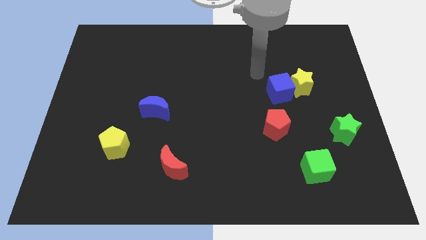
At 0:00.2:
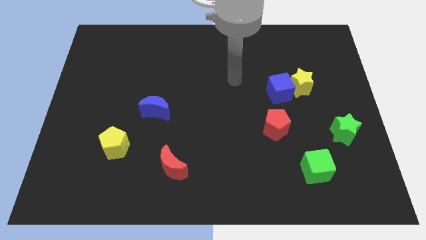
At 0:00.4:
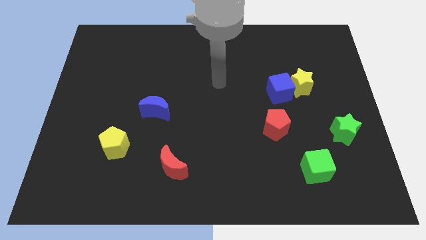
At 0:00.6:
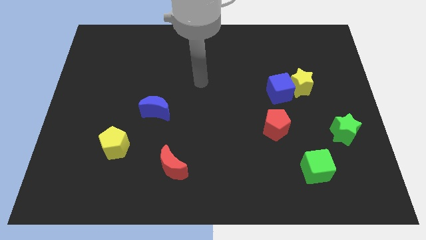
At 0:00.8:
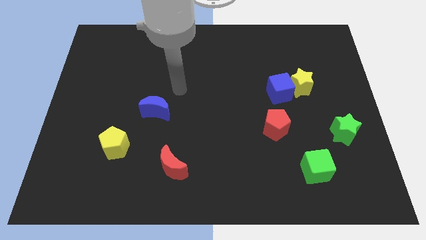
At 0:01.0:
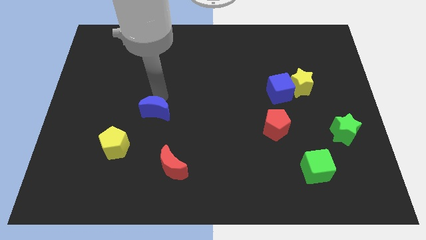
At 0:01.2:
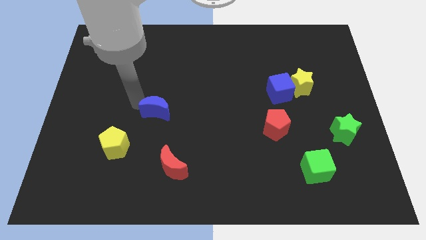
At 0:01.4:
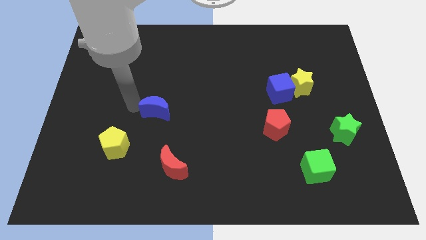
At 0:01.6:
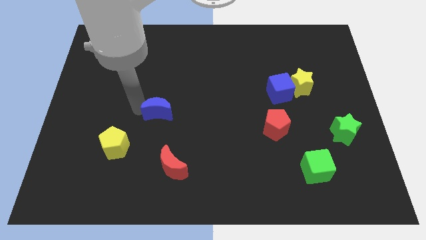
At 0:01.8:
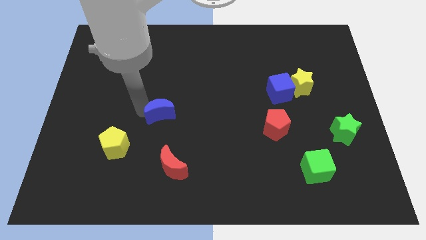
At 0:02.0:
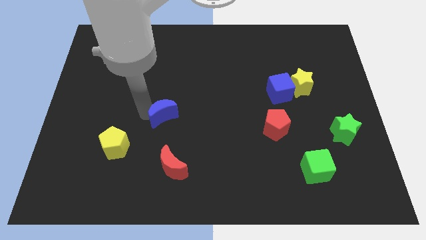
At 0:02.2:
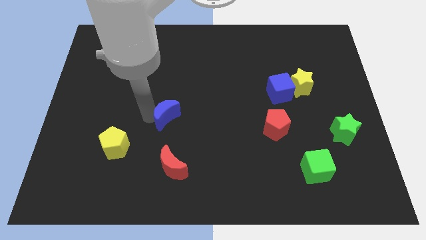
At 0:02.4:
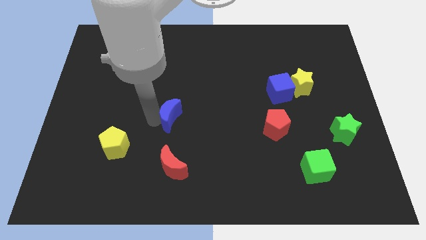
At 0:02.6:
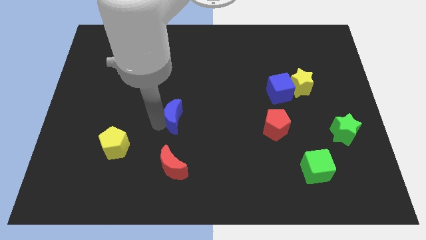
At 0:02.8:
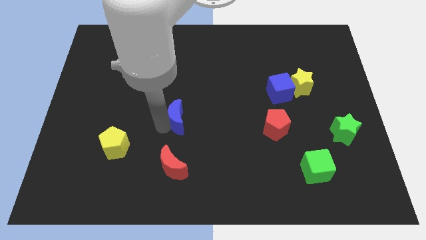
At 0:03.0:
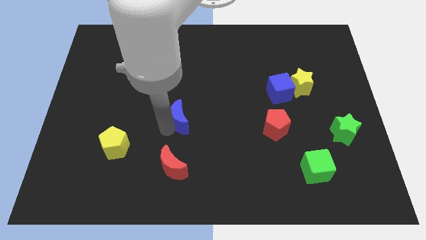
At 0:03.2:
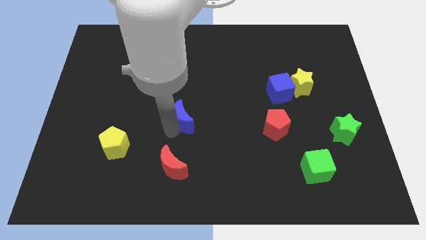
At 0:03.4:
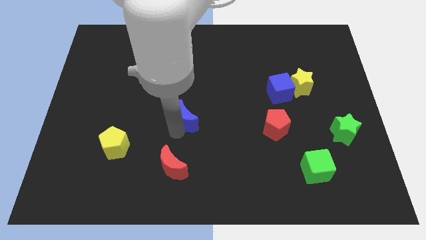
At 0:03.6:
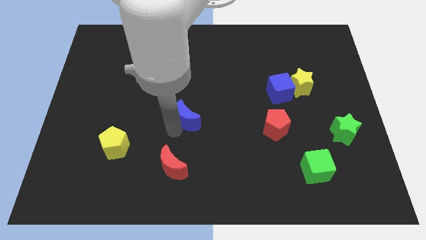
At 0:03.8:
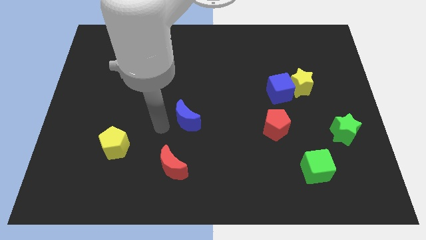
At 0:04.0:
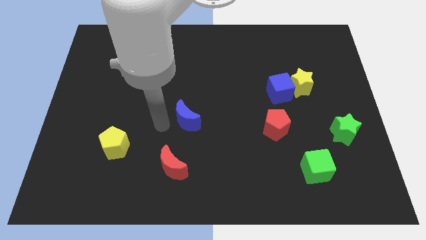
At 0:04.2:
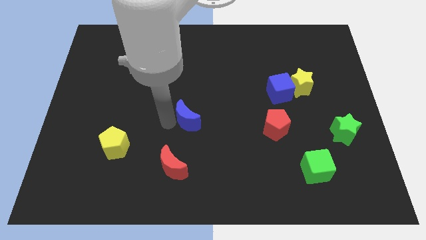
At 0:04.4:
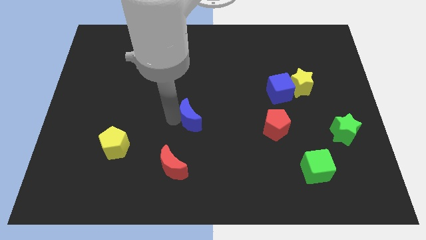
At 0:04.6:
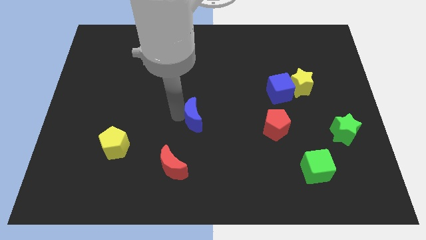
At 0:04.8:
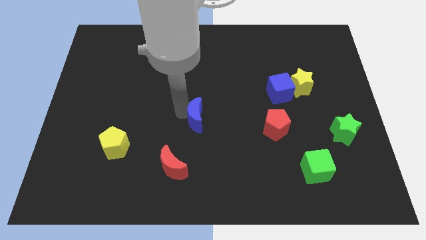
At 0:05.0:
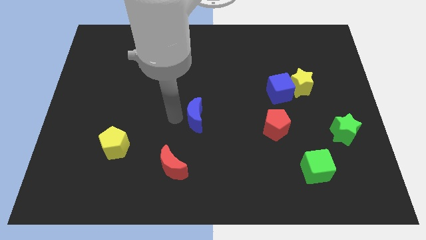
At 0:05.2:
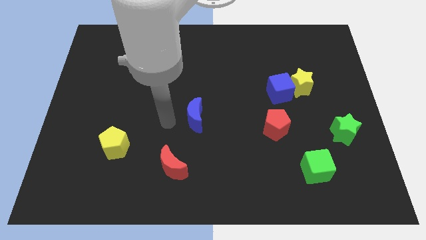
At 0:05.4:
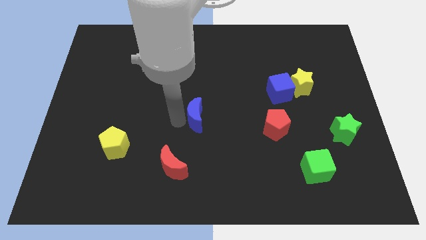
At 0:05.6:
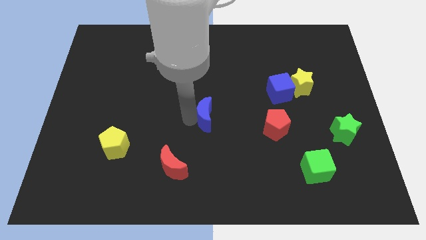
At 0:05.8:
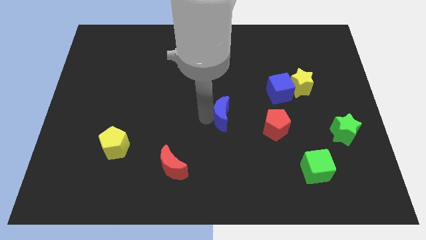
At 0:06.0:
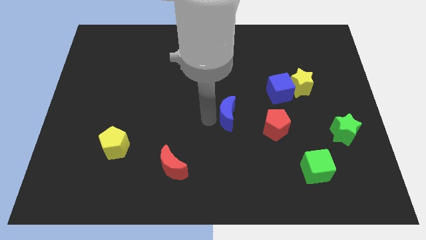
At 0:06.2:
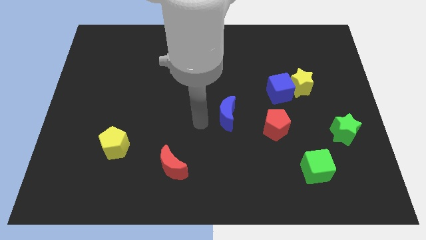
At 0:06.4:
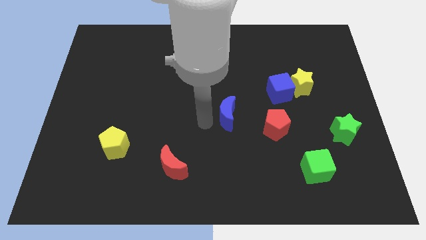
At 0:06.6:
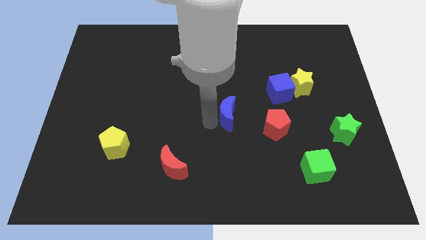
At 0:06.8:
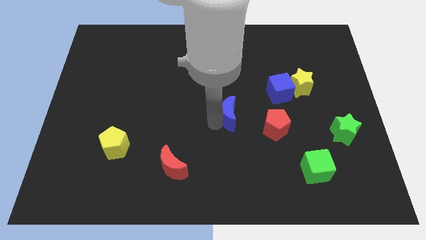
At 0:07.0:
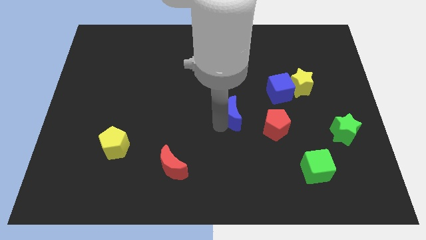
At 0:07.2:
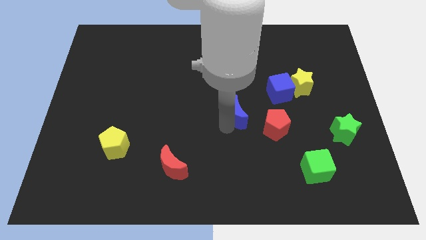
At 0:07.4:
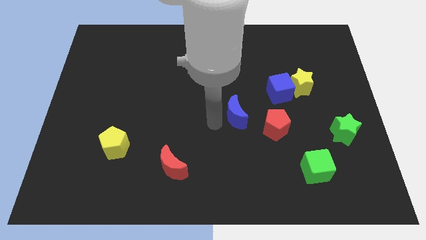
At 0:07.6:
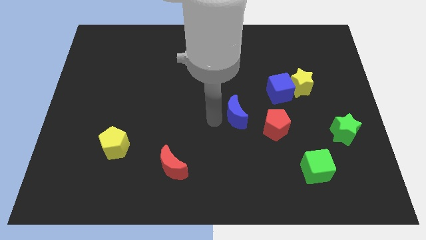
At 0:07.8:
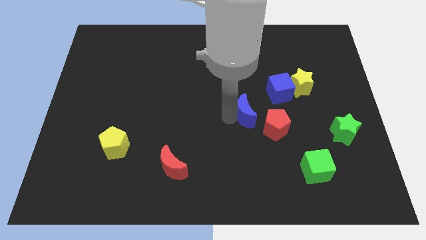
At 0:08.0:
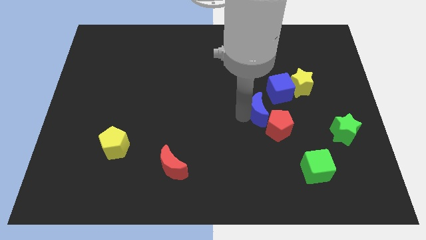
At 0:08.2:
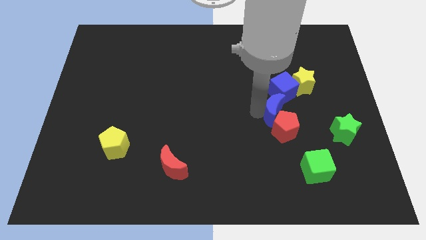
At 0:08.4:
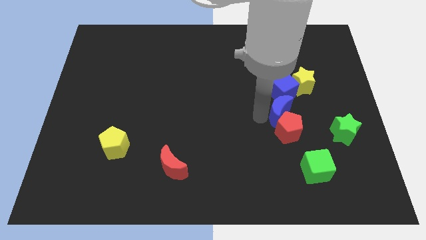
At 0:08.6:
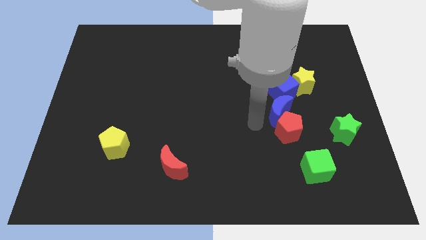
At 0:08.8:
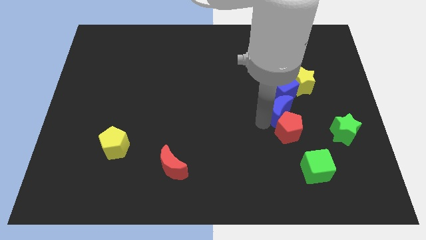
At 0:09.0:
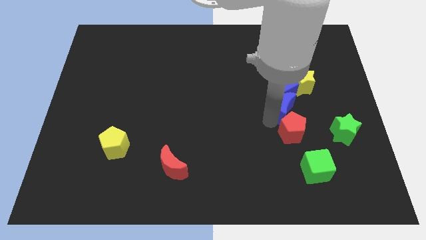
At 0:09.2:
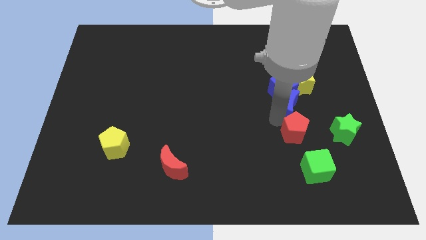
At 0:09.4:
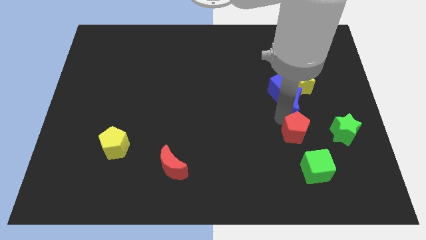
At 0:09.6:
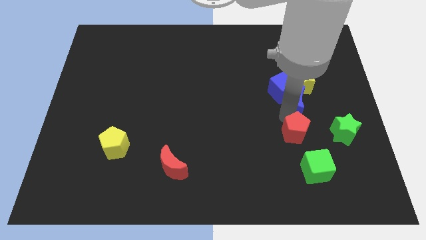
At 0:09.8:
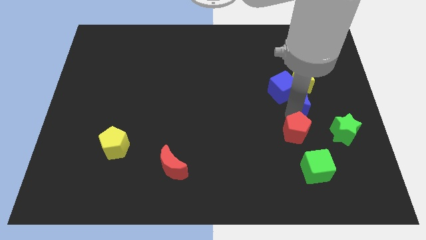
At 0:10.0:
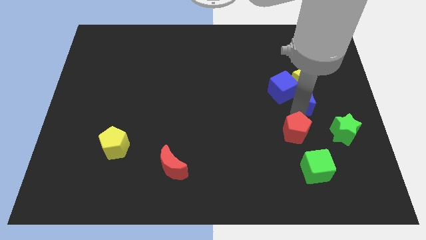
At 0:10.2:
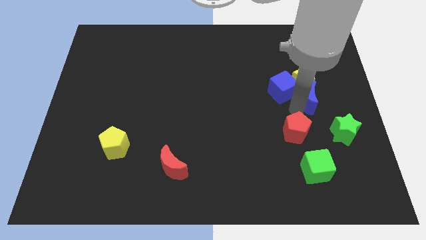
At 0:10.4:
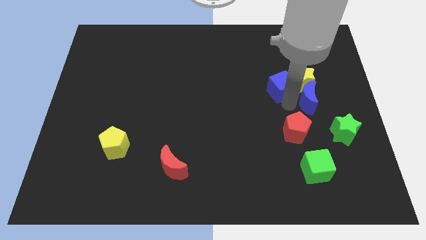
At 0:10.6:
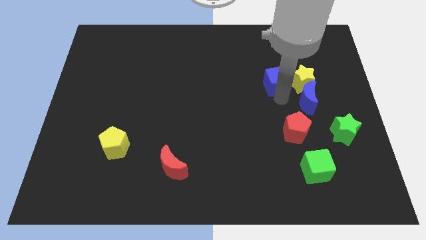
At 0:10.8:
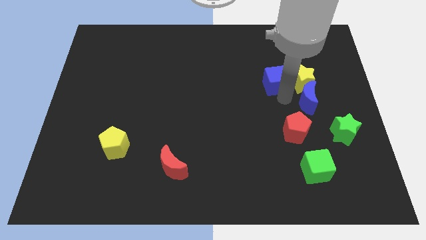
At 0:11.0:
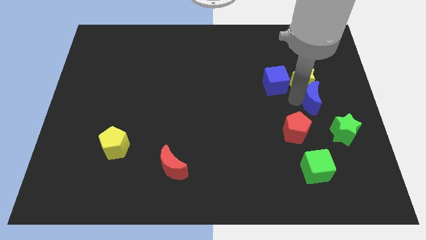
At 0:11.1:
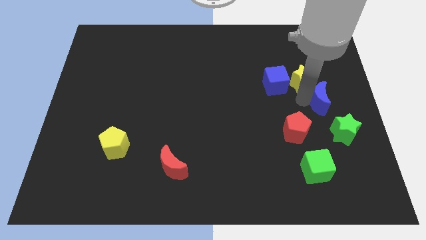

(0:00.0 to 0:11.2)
slide the blue moon to the right side
